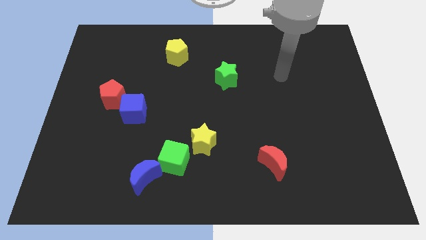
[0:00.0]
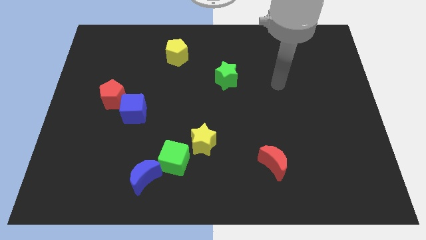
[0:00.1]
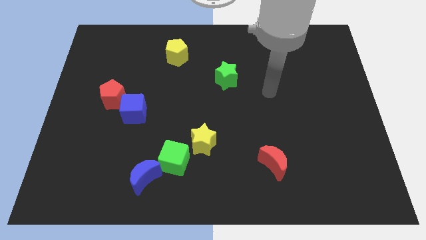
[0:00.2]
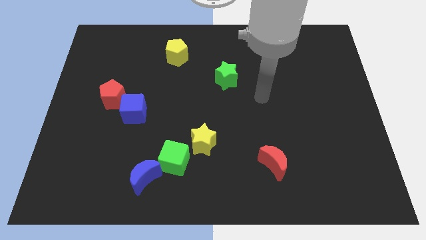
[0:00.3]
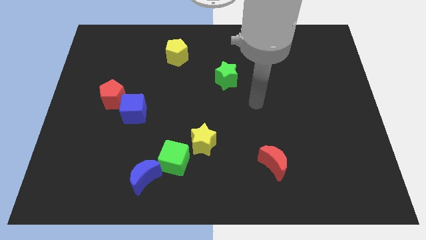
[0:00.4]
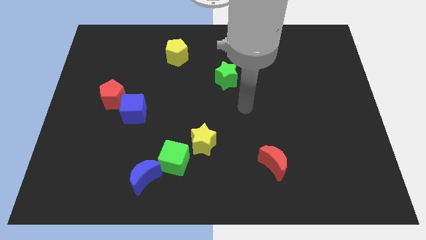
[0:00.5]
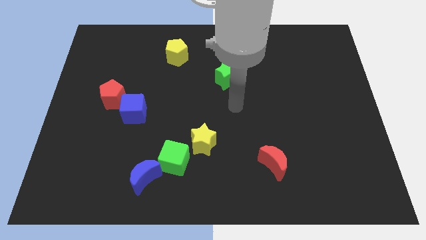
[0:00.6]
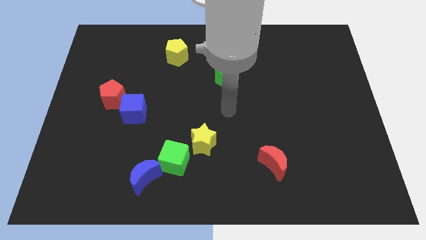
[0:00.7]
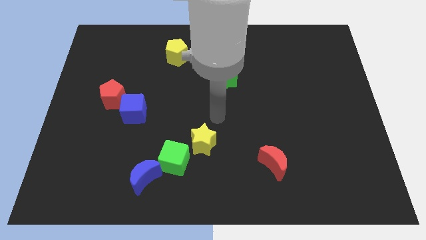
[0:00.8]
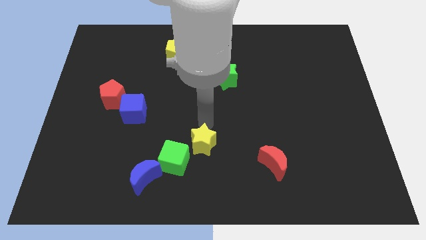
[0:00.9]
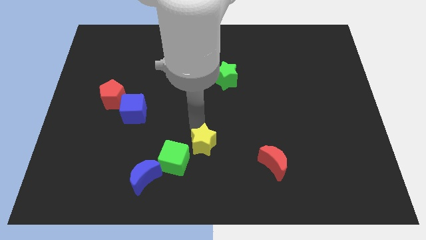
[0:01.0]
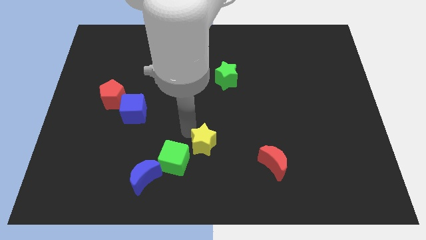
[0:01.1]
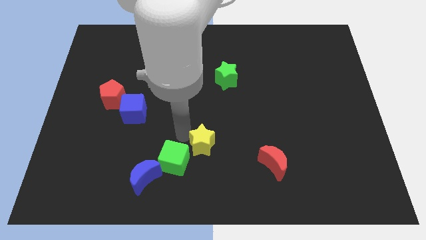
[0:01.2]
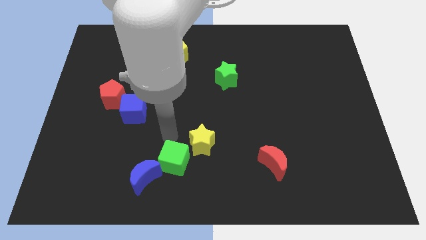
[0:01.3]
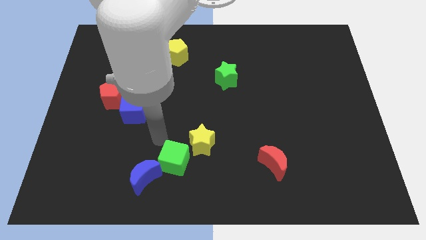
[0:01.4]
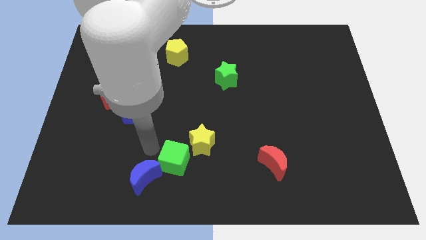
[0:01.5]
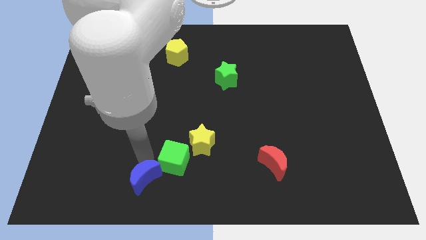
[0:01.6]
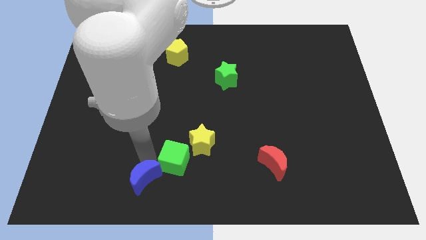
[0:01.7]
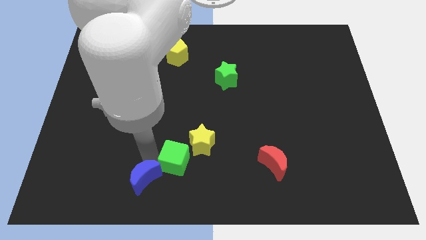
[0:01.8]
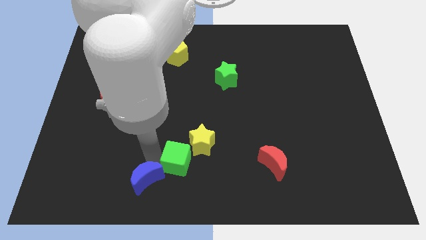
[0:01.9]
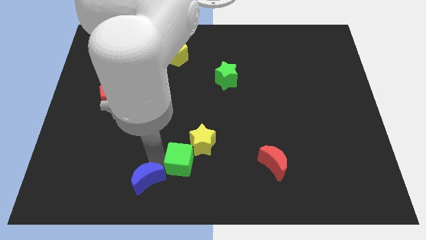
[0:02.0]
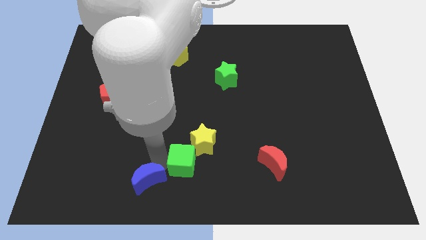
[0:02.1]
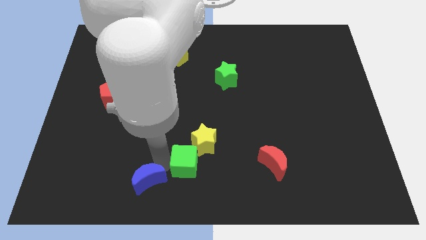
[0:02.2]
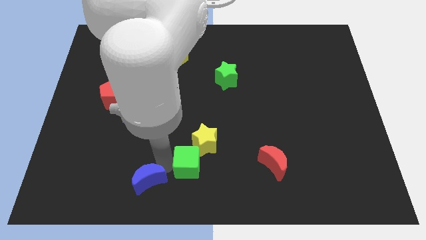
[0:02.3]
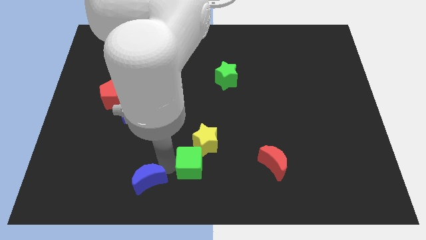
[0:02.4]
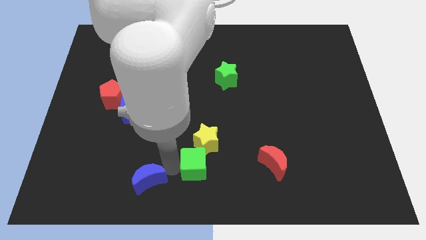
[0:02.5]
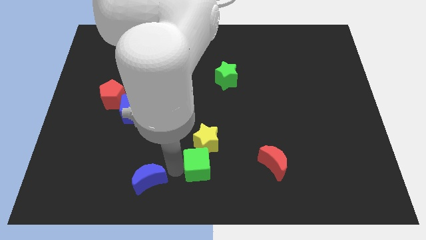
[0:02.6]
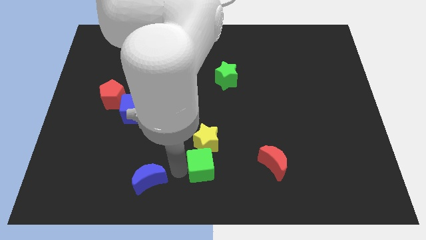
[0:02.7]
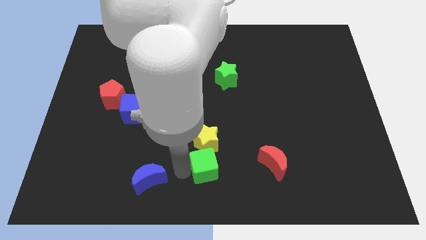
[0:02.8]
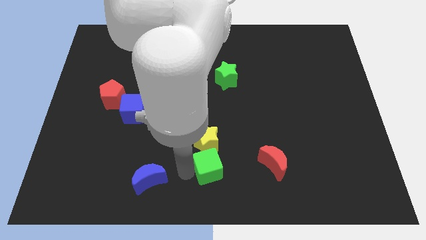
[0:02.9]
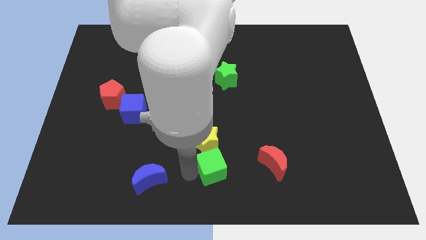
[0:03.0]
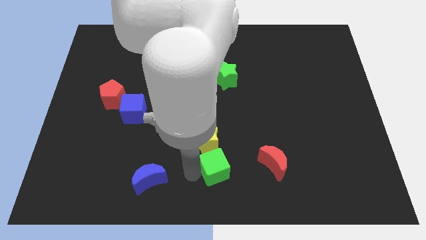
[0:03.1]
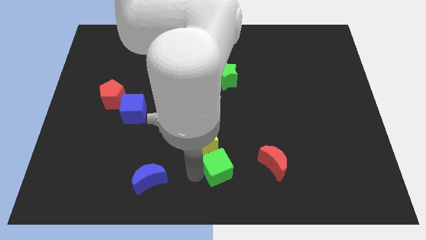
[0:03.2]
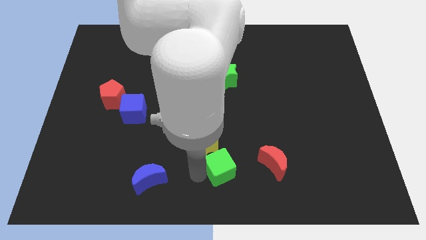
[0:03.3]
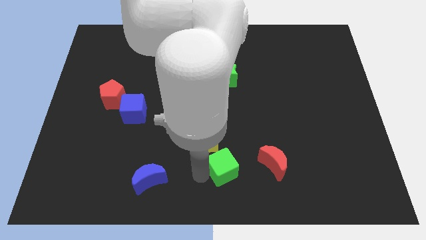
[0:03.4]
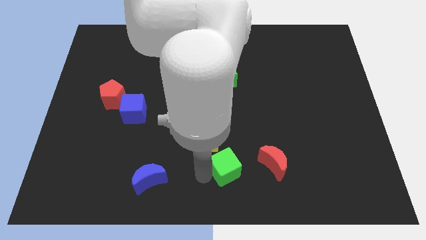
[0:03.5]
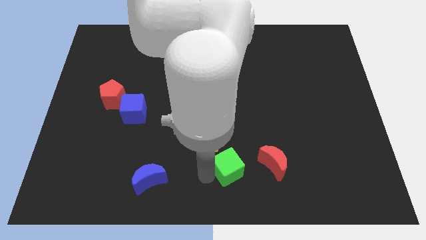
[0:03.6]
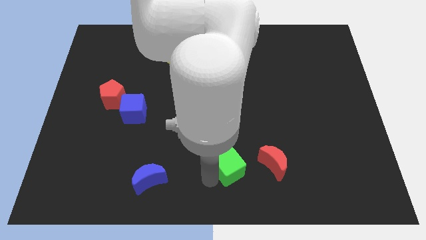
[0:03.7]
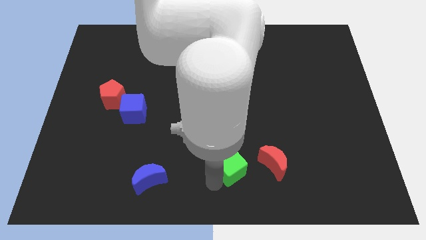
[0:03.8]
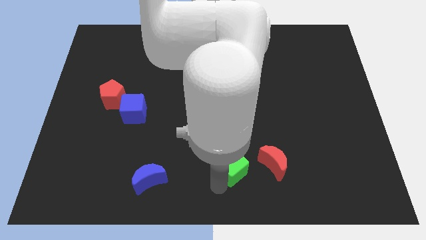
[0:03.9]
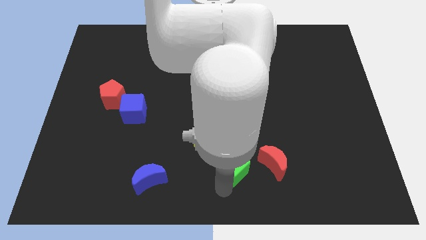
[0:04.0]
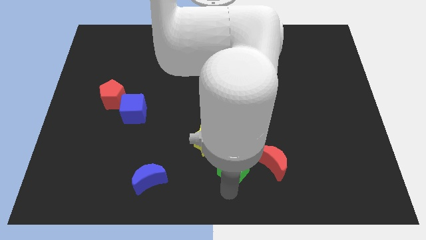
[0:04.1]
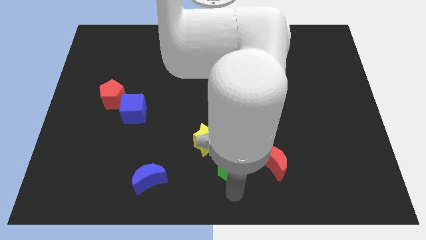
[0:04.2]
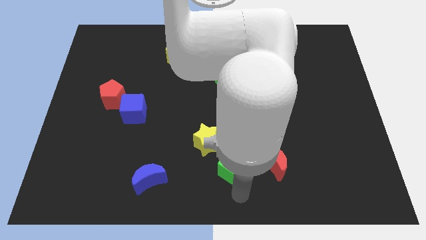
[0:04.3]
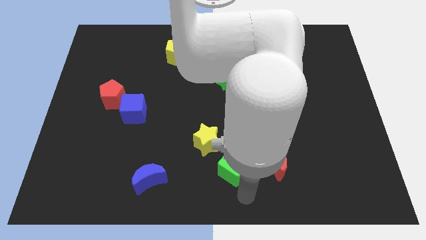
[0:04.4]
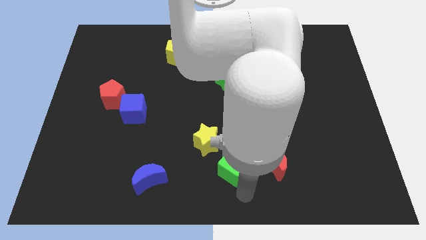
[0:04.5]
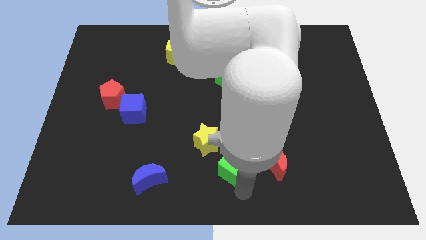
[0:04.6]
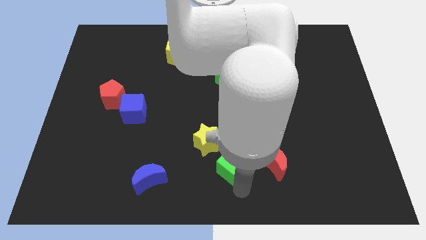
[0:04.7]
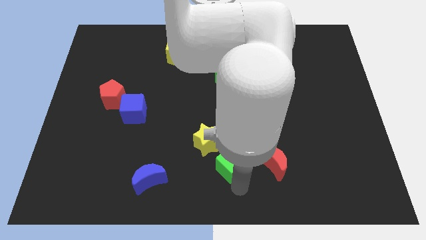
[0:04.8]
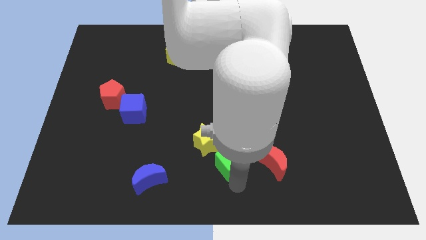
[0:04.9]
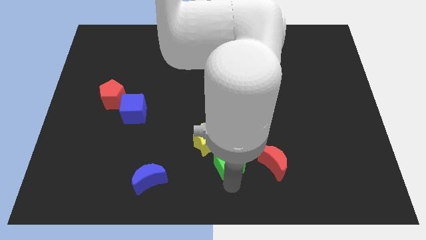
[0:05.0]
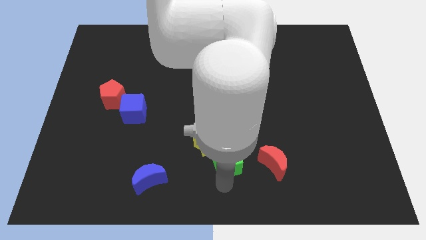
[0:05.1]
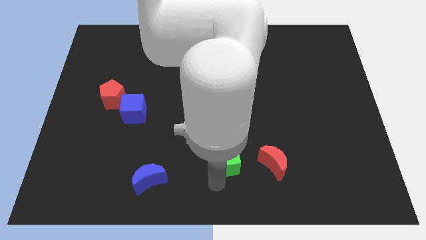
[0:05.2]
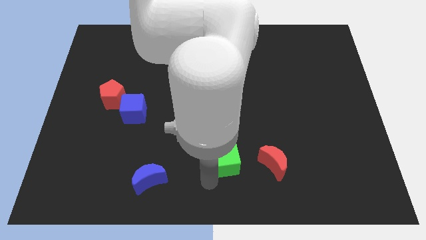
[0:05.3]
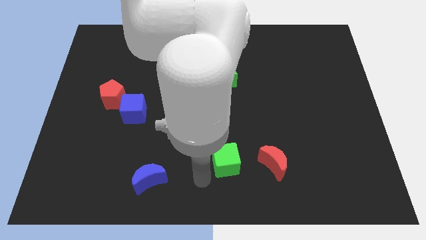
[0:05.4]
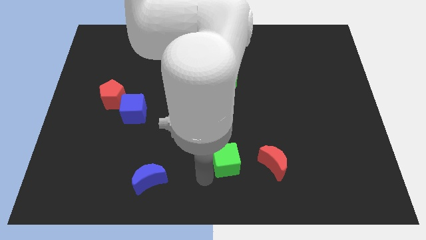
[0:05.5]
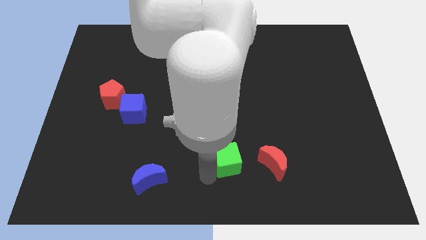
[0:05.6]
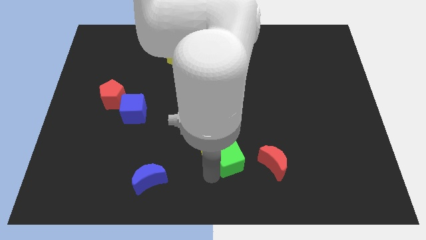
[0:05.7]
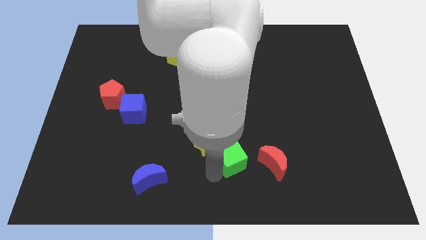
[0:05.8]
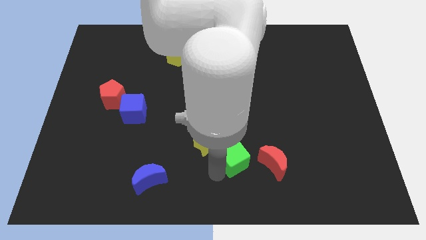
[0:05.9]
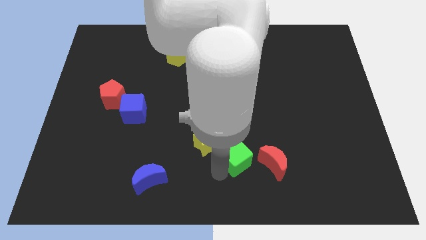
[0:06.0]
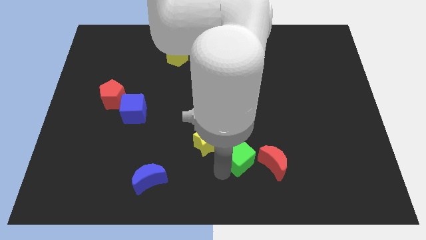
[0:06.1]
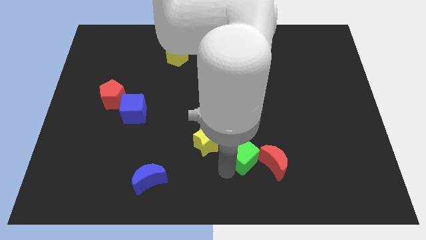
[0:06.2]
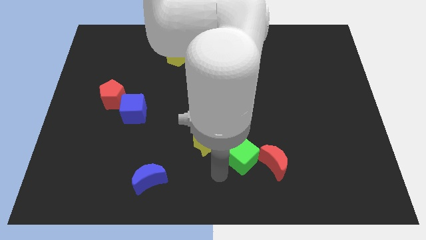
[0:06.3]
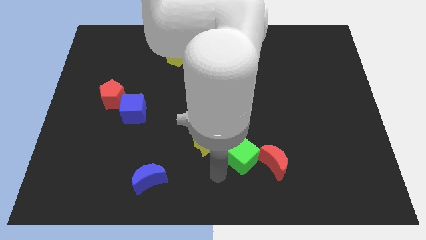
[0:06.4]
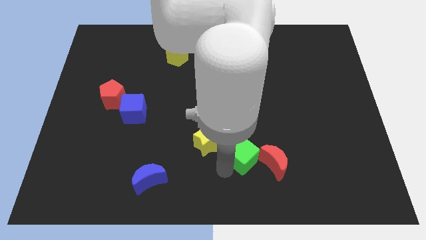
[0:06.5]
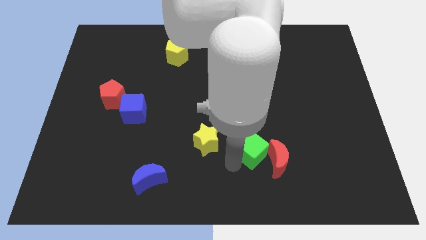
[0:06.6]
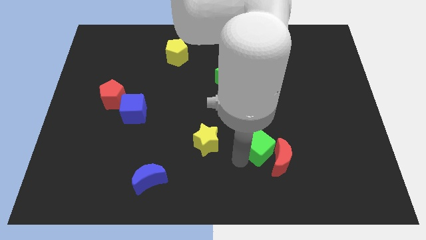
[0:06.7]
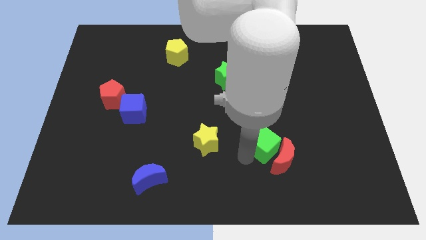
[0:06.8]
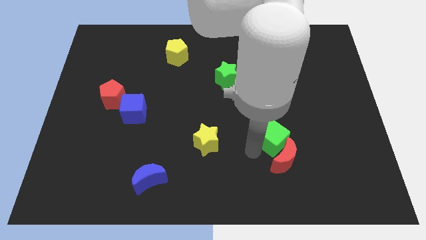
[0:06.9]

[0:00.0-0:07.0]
slide the green cube right

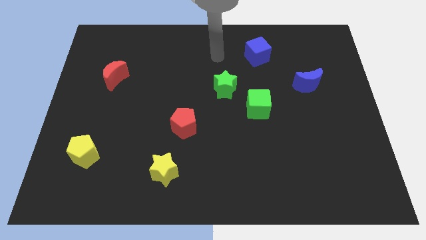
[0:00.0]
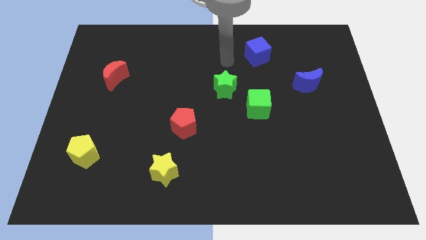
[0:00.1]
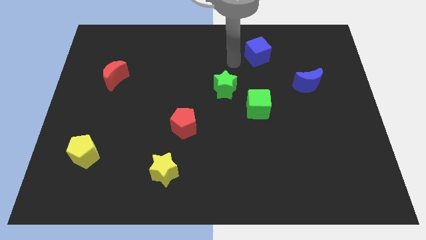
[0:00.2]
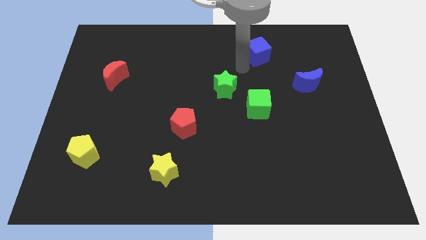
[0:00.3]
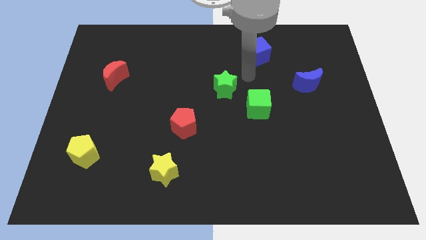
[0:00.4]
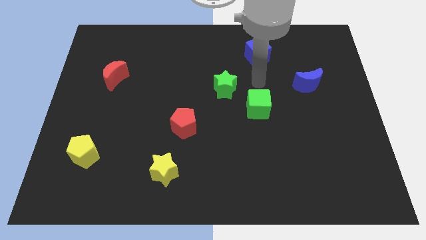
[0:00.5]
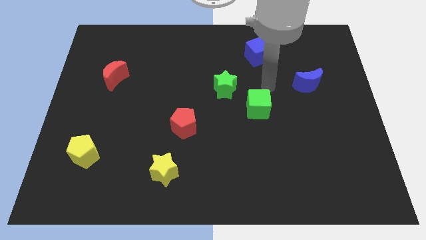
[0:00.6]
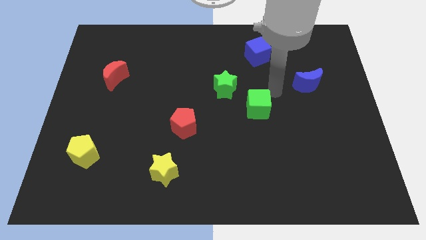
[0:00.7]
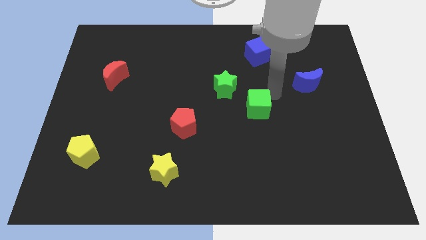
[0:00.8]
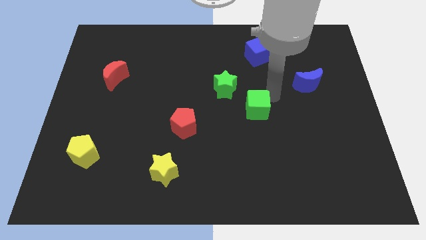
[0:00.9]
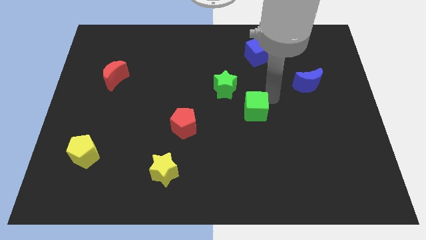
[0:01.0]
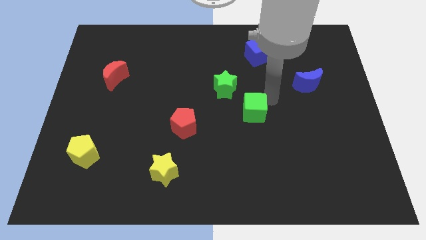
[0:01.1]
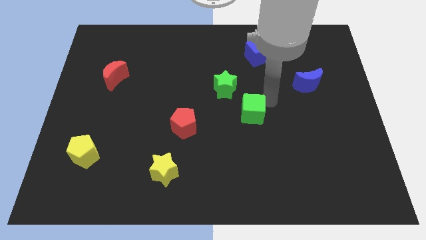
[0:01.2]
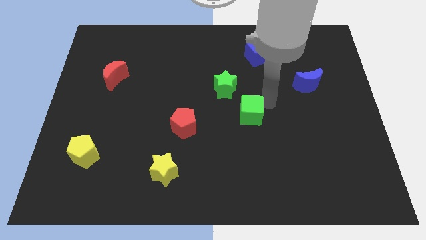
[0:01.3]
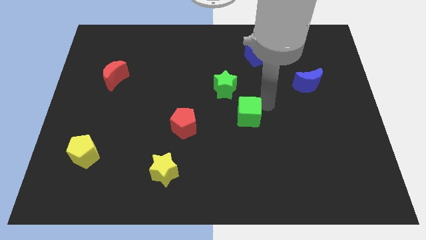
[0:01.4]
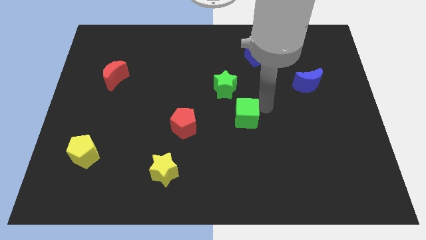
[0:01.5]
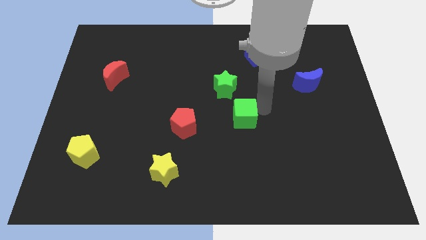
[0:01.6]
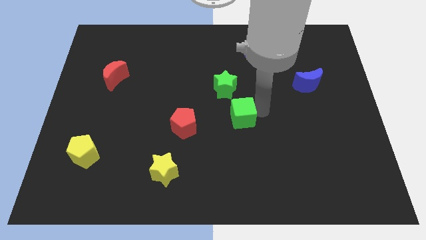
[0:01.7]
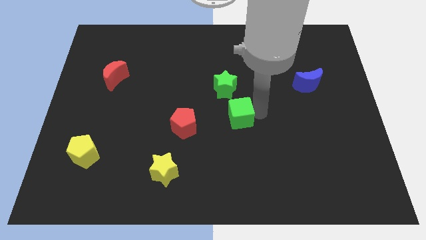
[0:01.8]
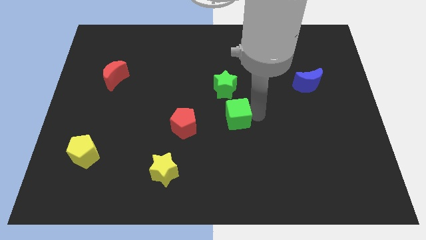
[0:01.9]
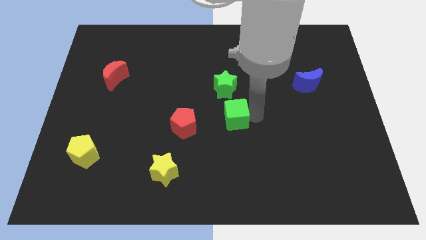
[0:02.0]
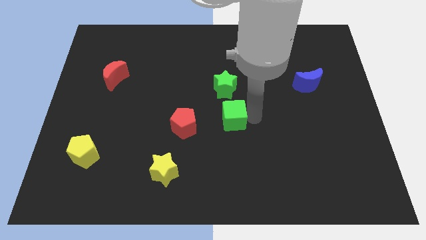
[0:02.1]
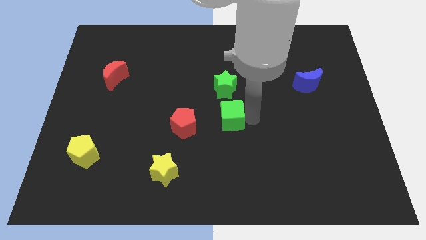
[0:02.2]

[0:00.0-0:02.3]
slide the green cube a little bit down and to the left
